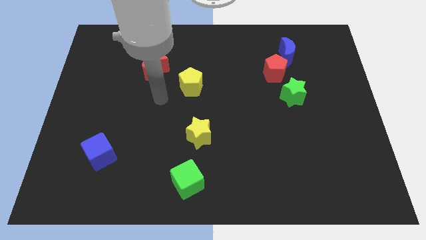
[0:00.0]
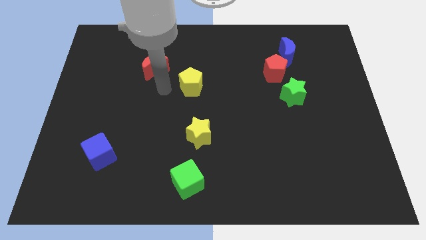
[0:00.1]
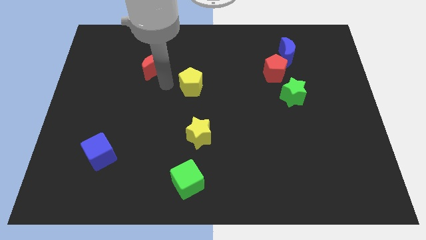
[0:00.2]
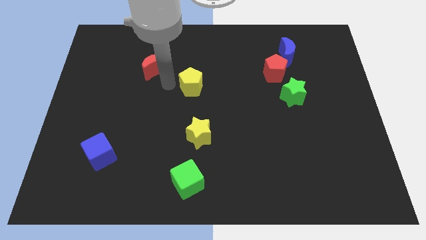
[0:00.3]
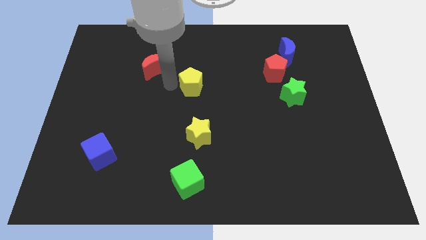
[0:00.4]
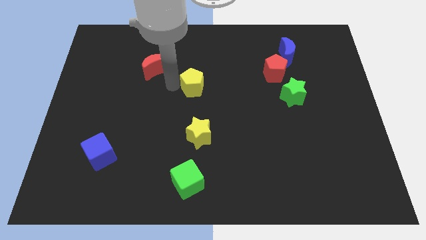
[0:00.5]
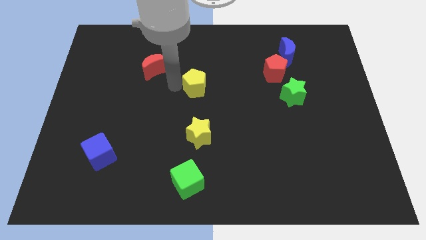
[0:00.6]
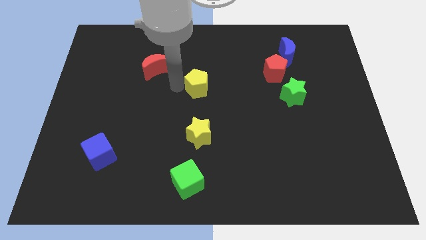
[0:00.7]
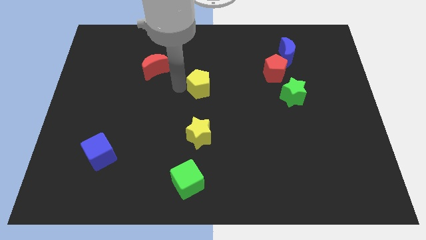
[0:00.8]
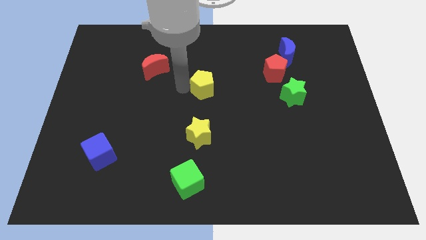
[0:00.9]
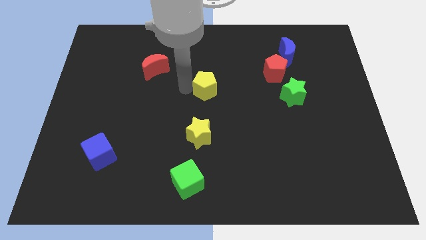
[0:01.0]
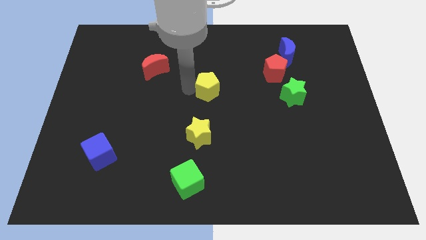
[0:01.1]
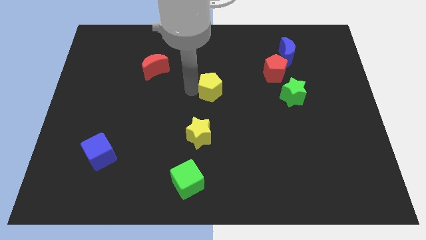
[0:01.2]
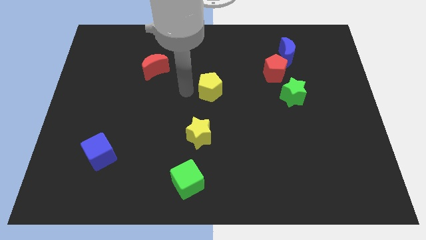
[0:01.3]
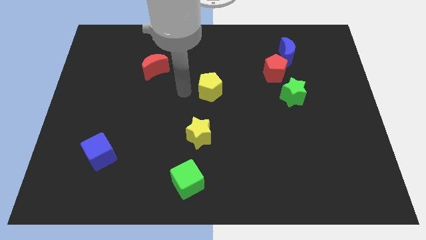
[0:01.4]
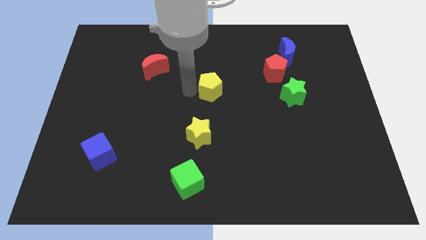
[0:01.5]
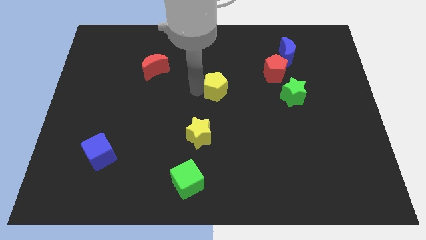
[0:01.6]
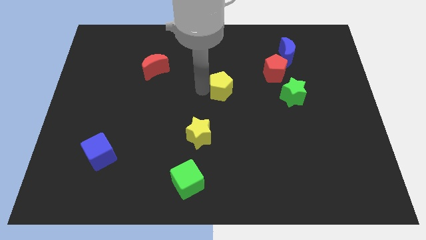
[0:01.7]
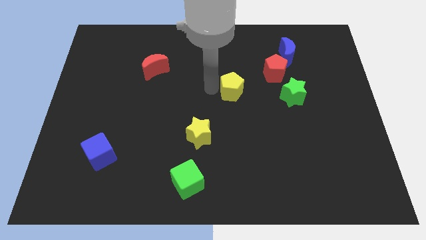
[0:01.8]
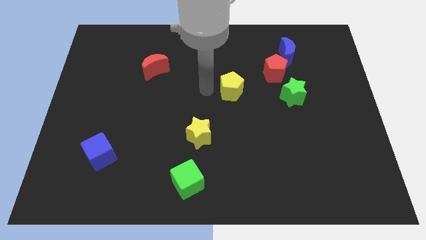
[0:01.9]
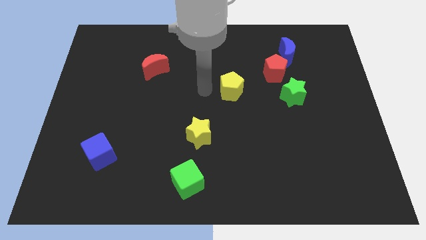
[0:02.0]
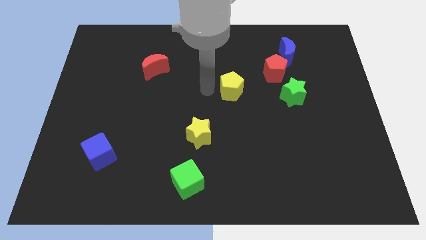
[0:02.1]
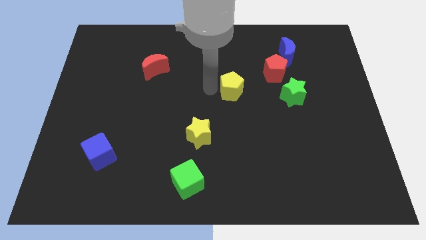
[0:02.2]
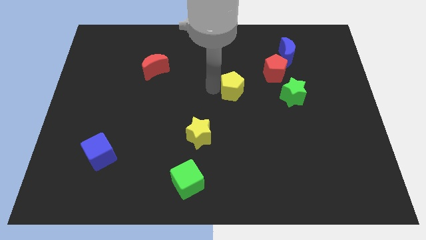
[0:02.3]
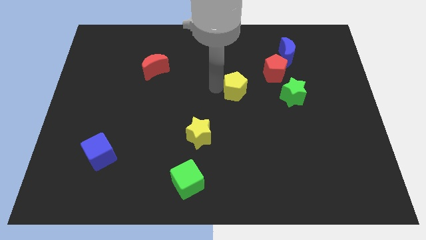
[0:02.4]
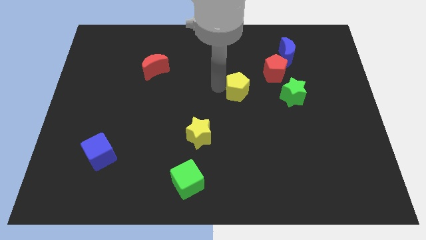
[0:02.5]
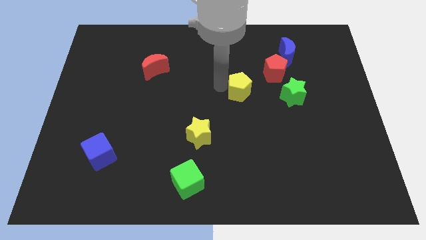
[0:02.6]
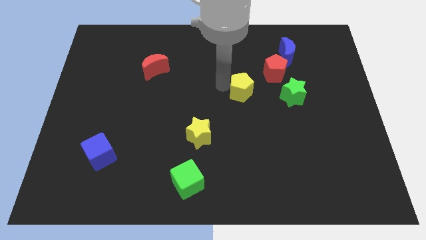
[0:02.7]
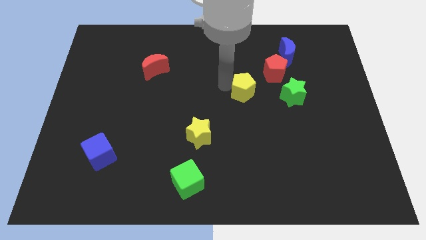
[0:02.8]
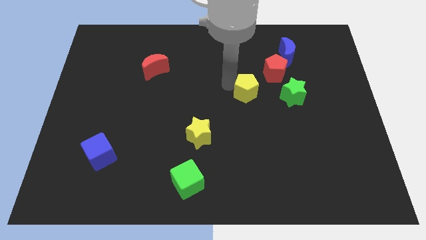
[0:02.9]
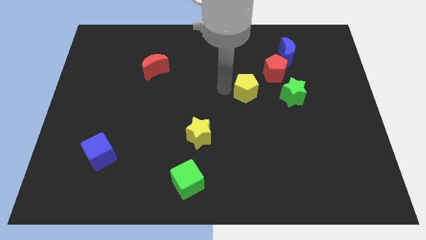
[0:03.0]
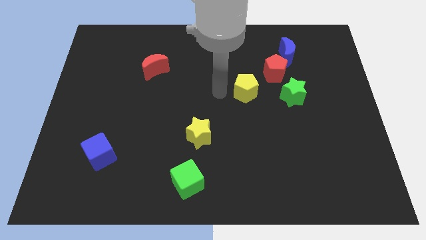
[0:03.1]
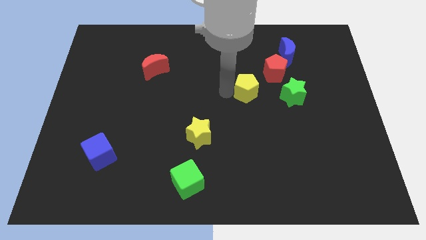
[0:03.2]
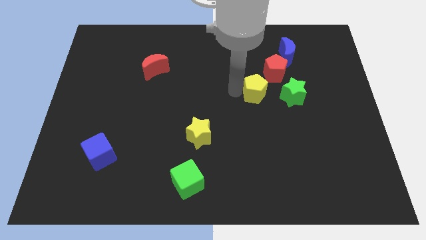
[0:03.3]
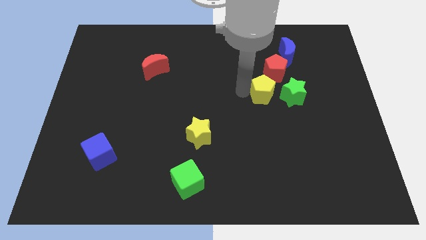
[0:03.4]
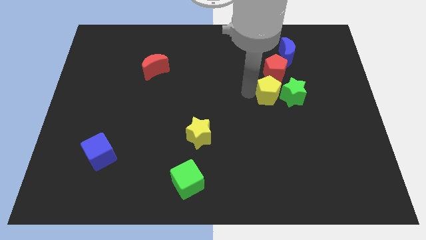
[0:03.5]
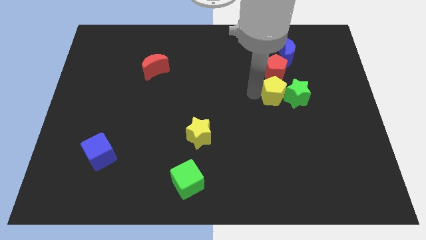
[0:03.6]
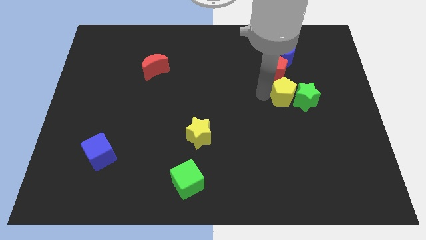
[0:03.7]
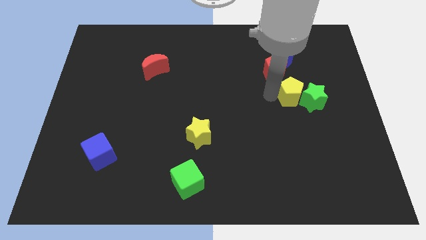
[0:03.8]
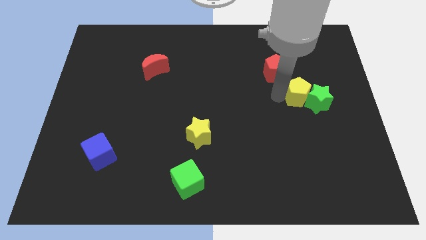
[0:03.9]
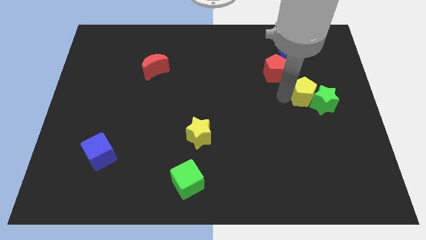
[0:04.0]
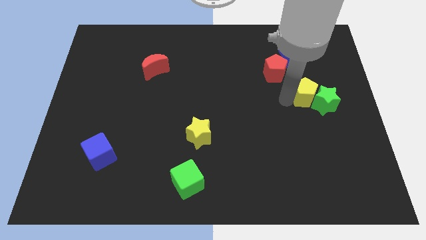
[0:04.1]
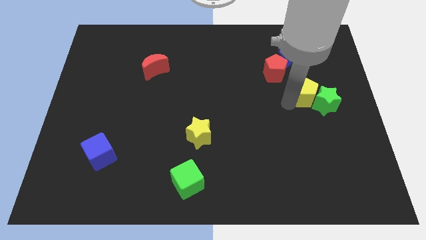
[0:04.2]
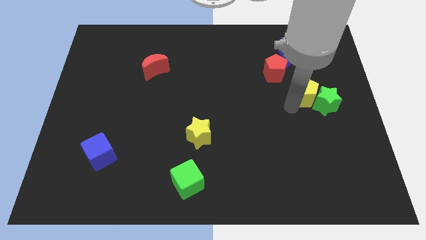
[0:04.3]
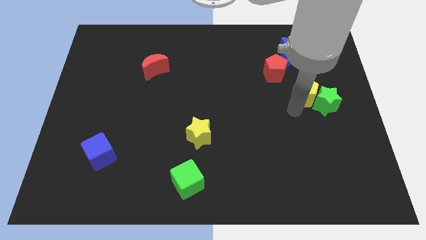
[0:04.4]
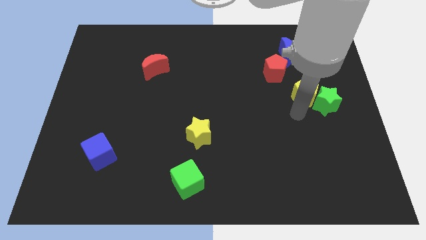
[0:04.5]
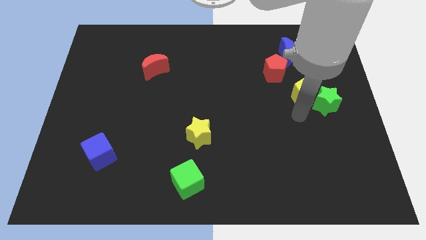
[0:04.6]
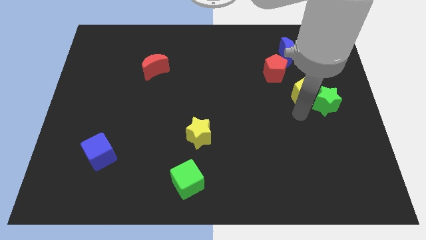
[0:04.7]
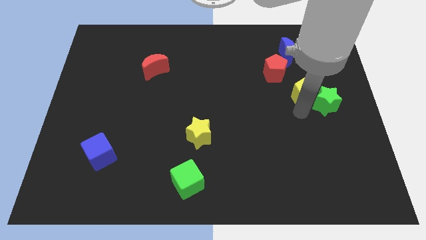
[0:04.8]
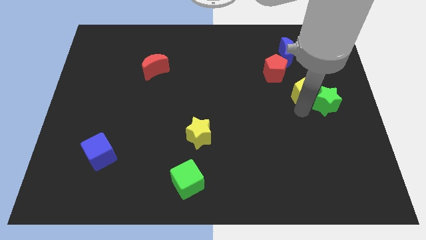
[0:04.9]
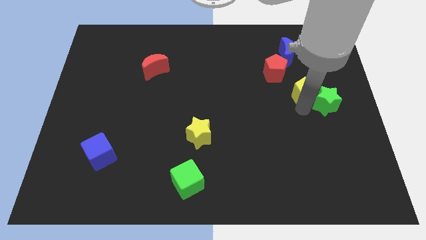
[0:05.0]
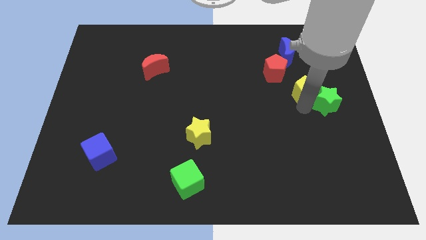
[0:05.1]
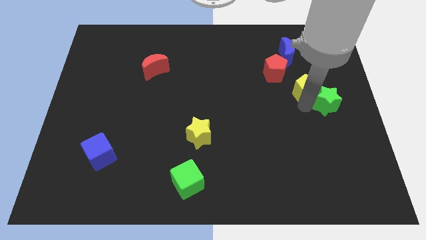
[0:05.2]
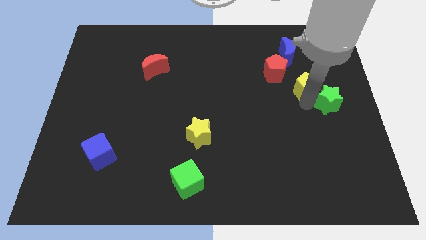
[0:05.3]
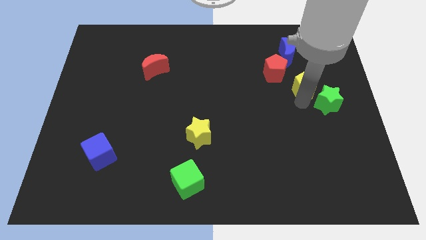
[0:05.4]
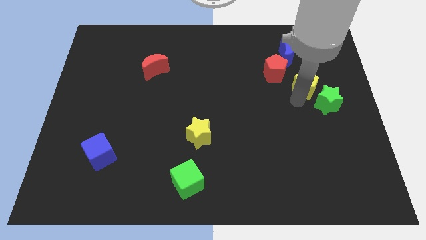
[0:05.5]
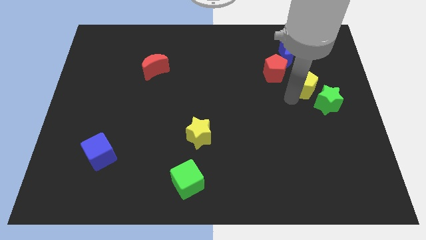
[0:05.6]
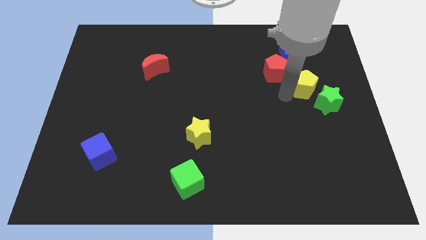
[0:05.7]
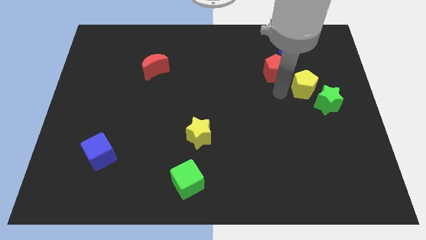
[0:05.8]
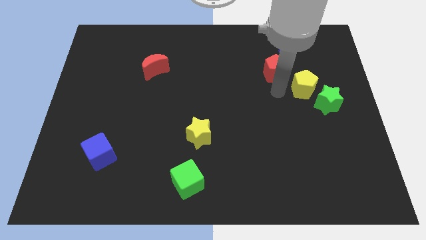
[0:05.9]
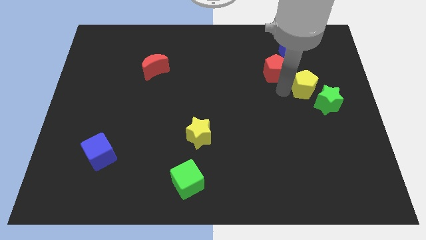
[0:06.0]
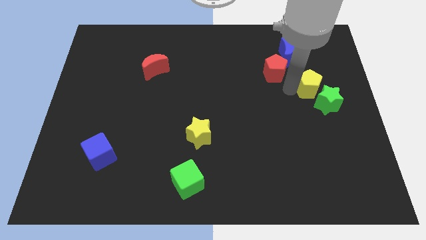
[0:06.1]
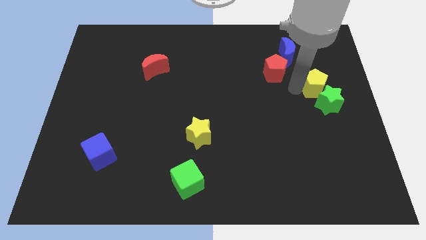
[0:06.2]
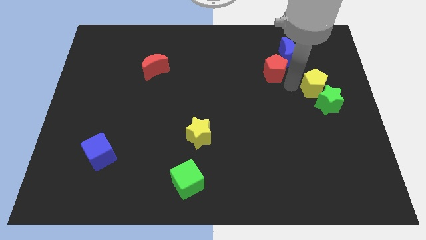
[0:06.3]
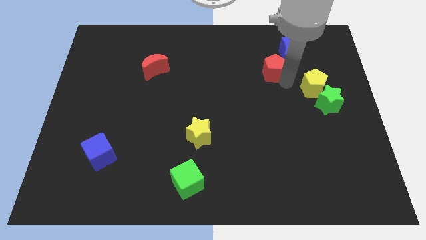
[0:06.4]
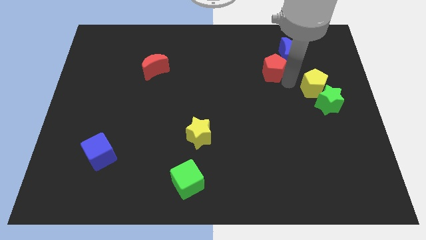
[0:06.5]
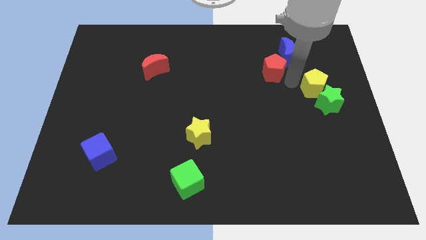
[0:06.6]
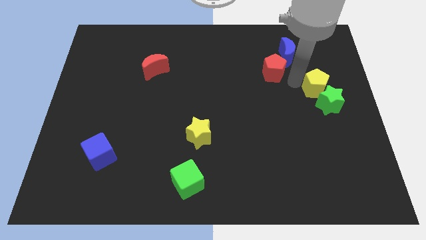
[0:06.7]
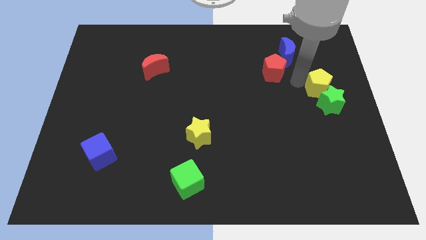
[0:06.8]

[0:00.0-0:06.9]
push the yellow pentagon to the center right

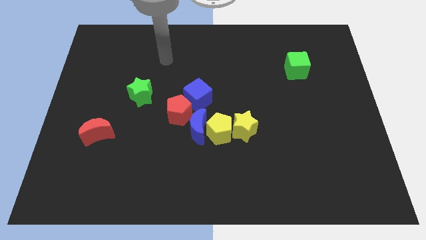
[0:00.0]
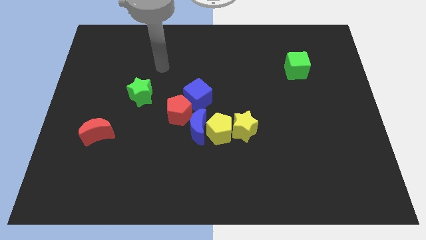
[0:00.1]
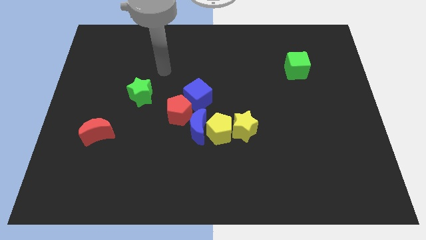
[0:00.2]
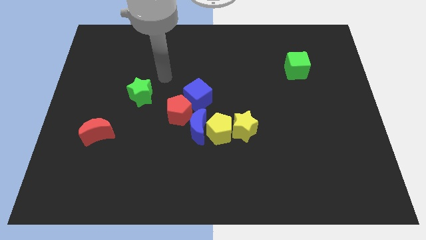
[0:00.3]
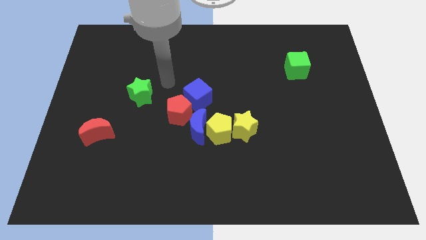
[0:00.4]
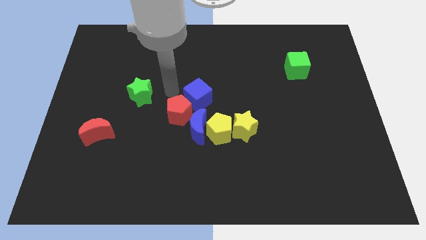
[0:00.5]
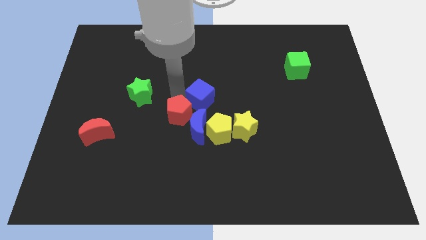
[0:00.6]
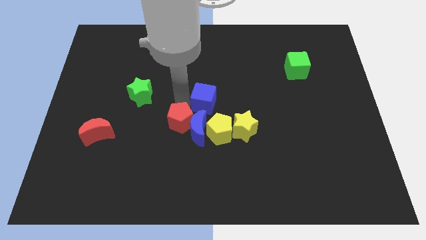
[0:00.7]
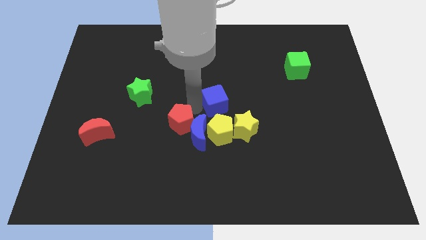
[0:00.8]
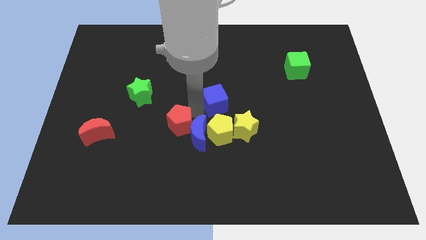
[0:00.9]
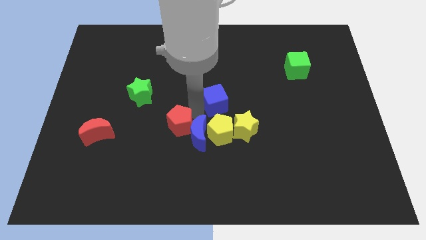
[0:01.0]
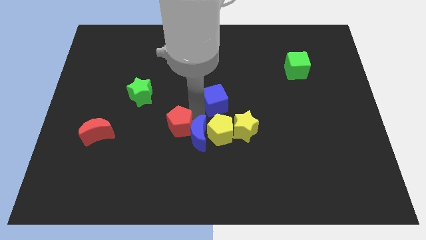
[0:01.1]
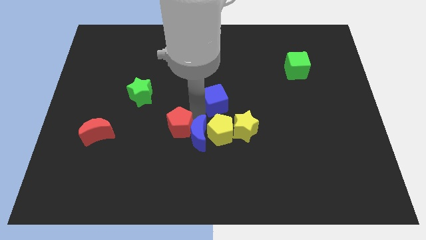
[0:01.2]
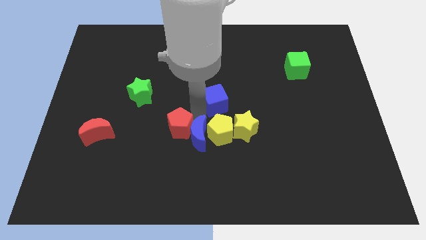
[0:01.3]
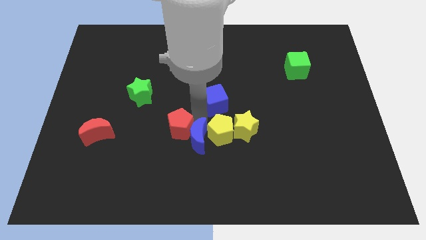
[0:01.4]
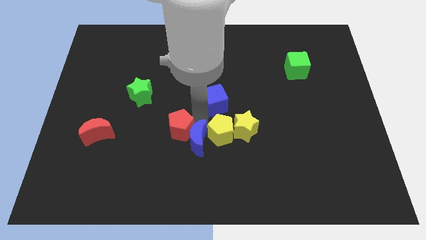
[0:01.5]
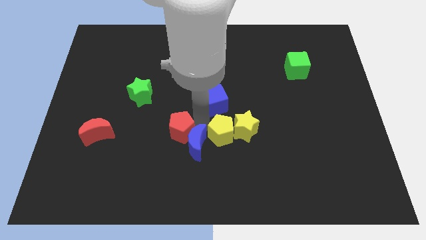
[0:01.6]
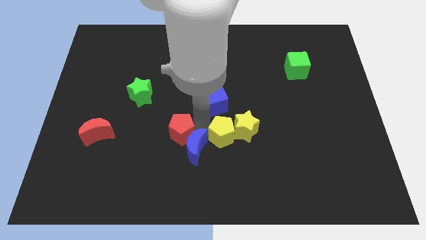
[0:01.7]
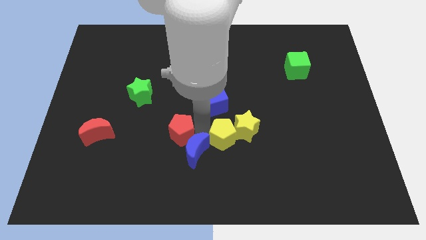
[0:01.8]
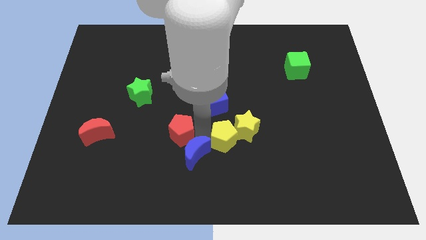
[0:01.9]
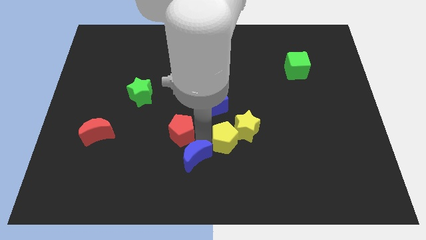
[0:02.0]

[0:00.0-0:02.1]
move the blue moon to the bottom
